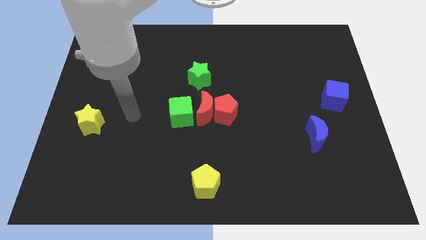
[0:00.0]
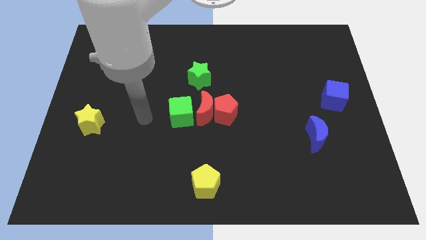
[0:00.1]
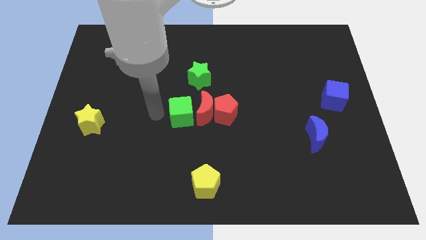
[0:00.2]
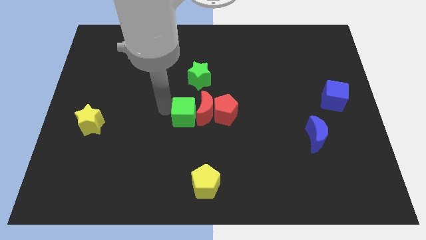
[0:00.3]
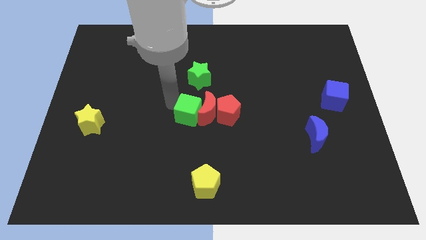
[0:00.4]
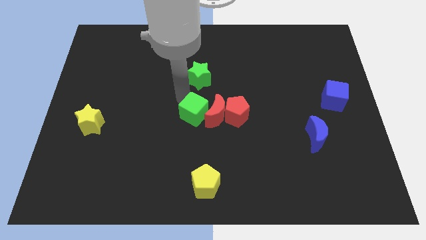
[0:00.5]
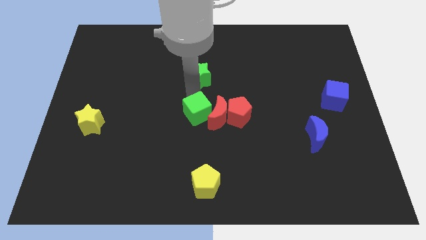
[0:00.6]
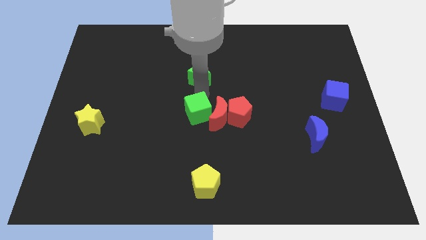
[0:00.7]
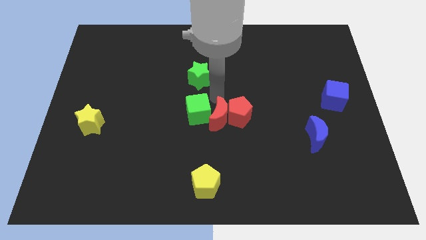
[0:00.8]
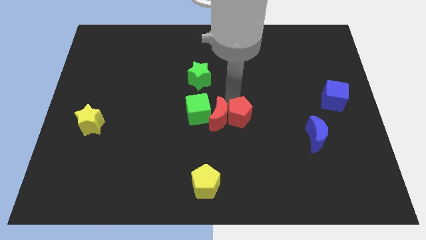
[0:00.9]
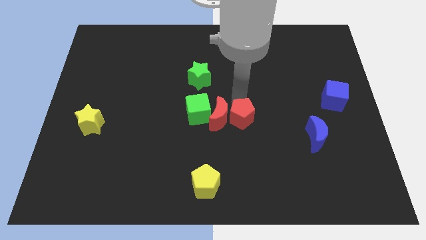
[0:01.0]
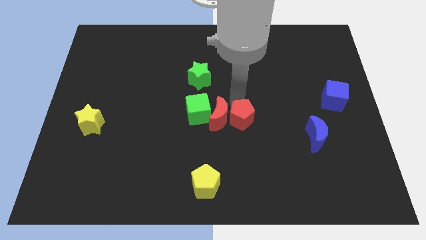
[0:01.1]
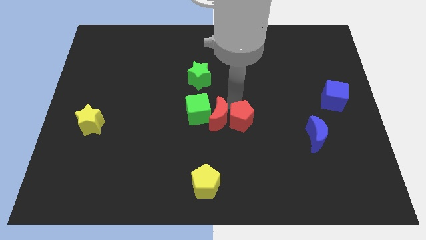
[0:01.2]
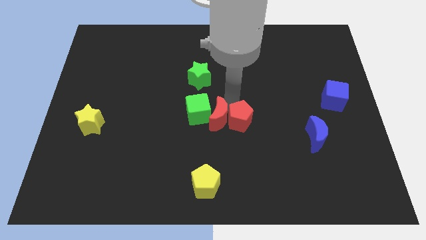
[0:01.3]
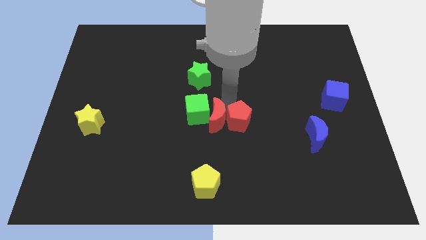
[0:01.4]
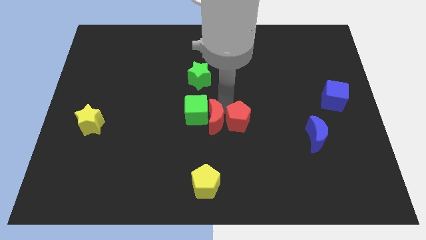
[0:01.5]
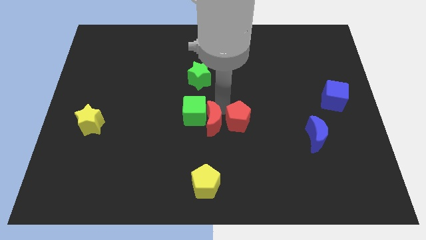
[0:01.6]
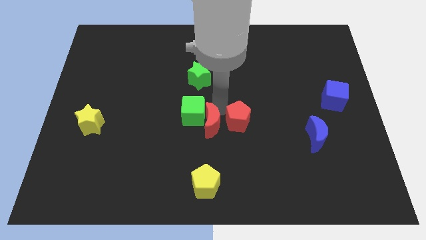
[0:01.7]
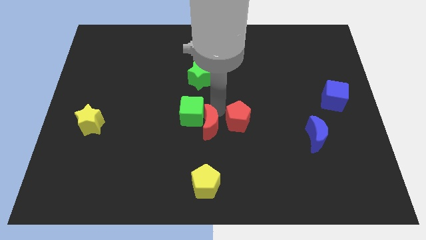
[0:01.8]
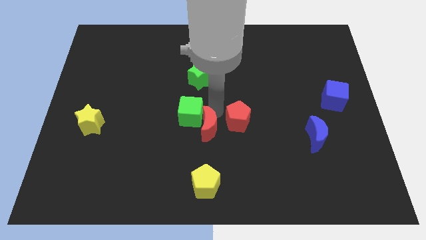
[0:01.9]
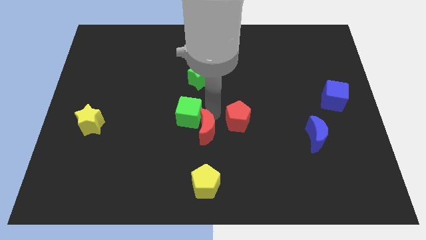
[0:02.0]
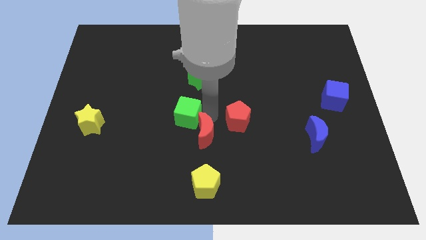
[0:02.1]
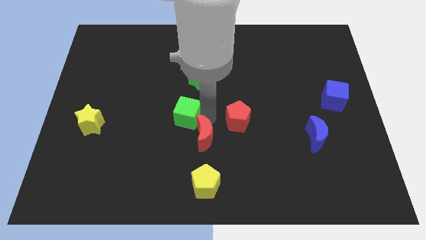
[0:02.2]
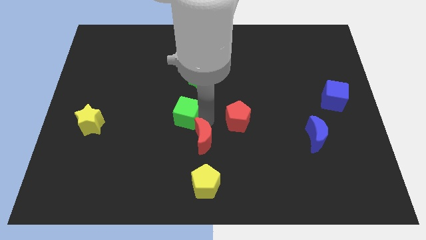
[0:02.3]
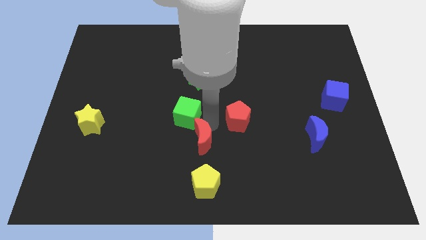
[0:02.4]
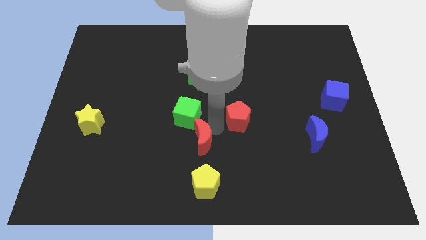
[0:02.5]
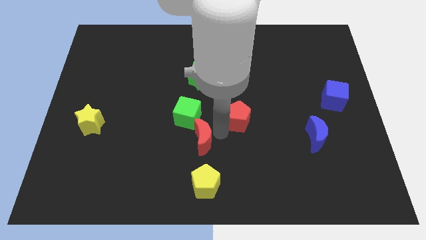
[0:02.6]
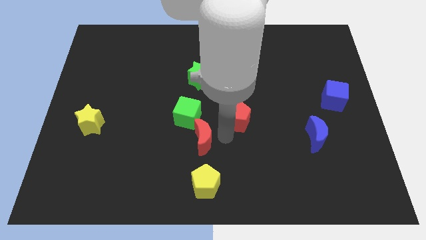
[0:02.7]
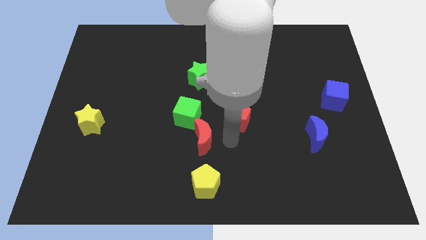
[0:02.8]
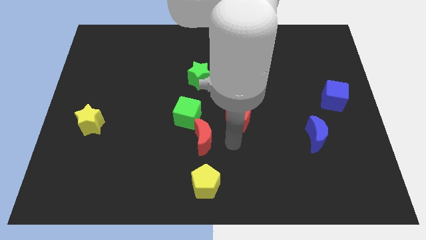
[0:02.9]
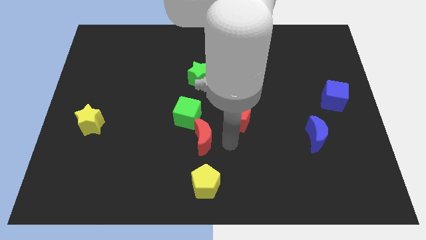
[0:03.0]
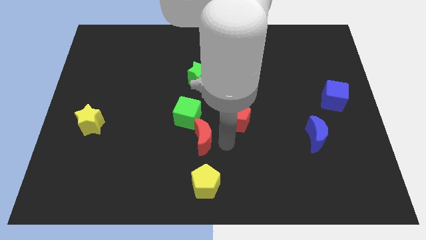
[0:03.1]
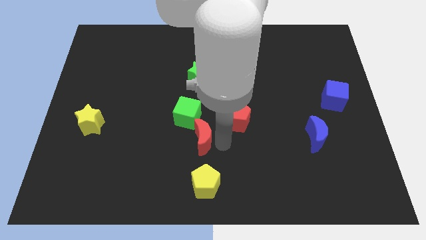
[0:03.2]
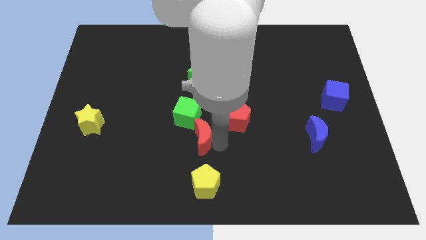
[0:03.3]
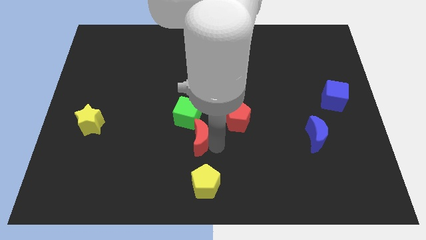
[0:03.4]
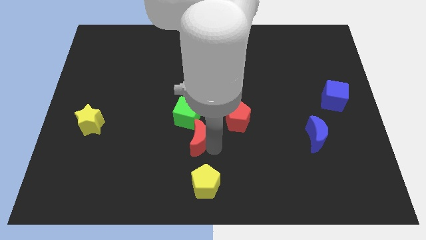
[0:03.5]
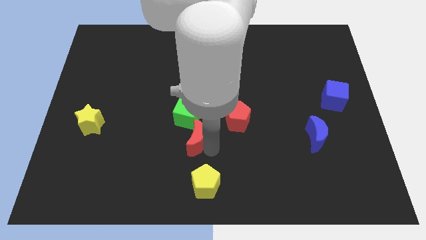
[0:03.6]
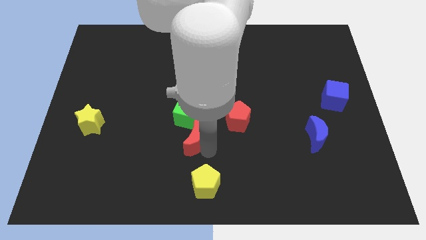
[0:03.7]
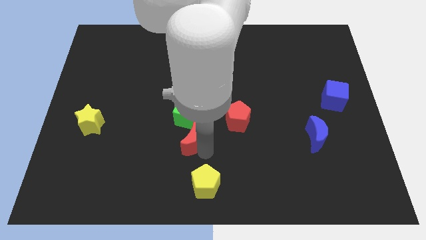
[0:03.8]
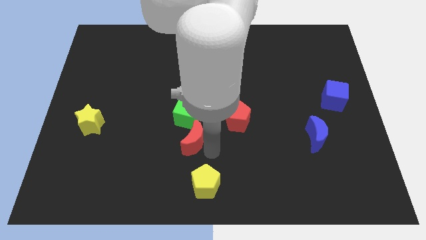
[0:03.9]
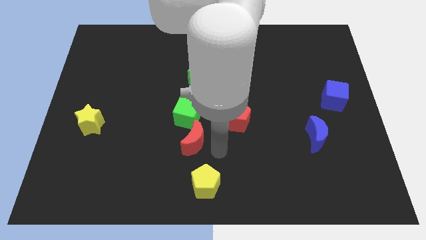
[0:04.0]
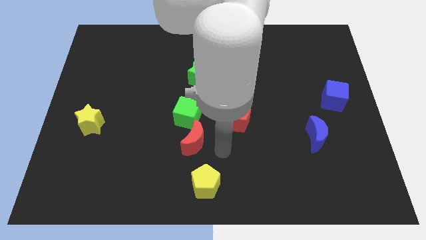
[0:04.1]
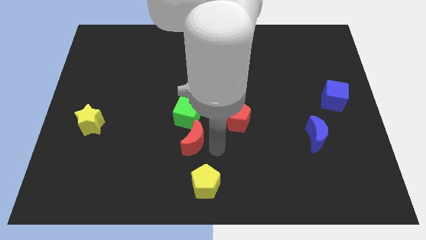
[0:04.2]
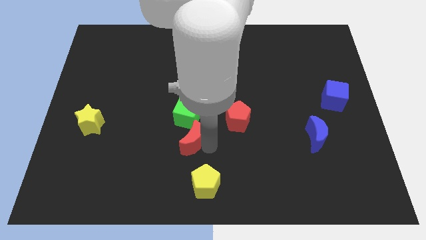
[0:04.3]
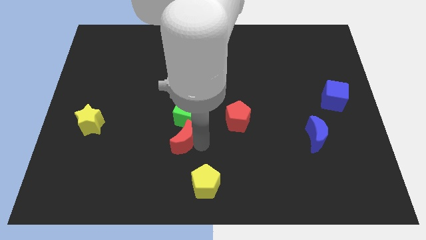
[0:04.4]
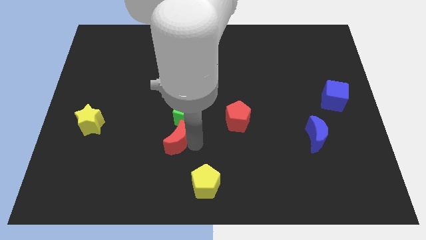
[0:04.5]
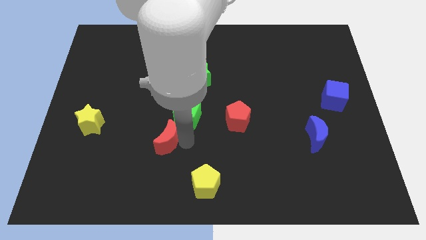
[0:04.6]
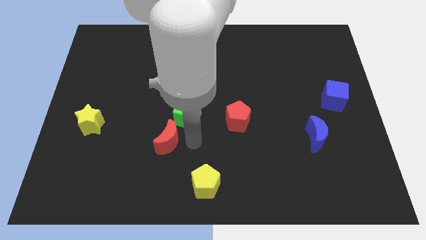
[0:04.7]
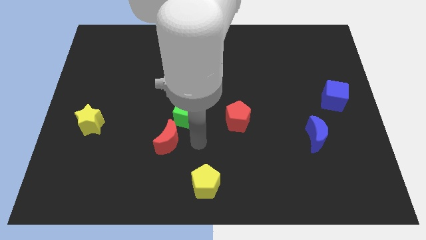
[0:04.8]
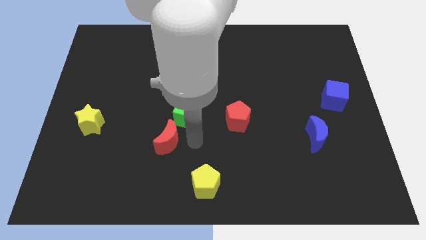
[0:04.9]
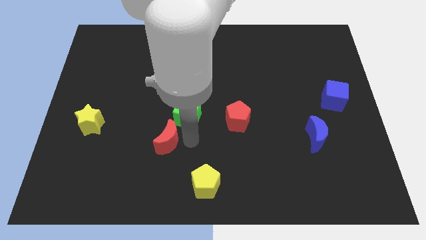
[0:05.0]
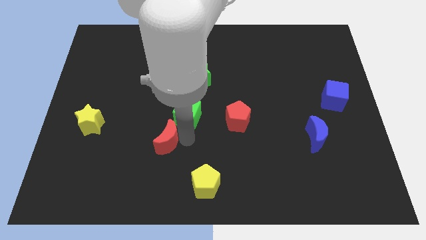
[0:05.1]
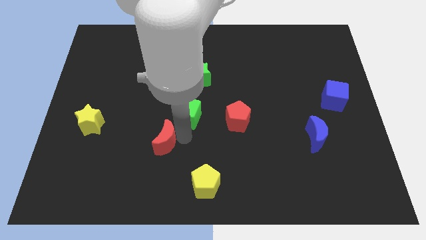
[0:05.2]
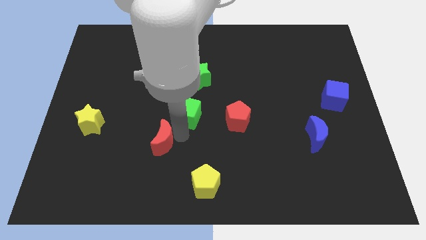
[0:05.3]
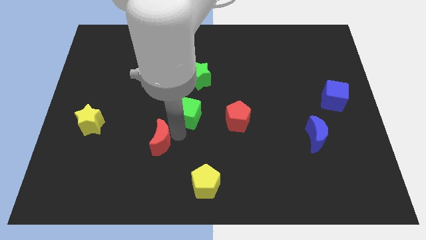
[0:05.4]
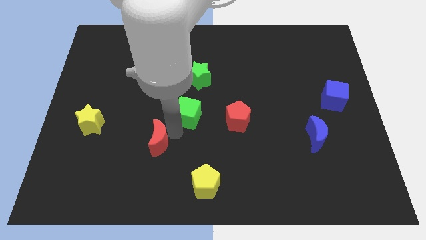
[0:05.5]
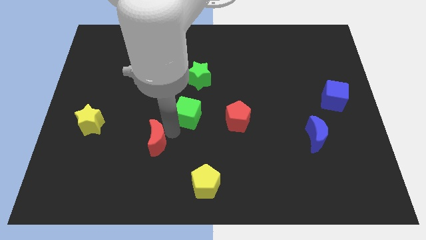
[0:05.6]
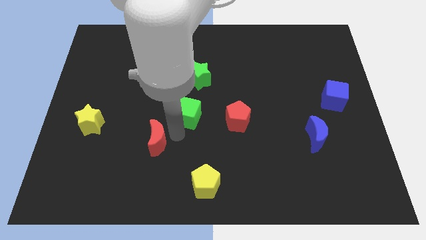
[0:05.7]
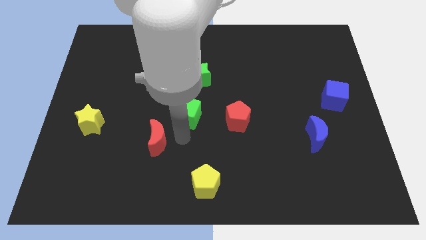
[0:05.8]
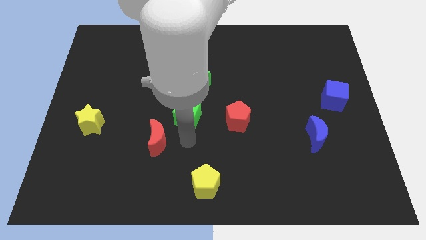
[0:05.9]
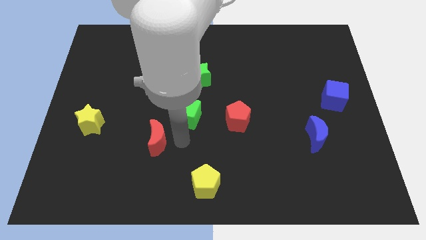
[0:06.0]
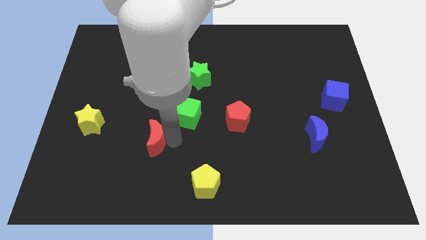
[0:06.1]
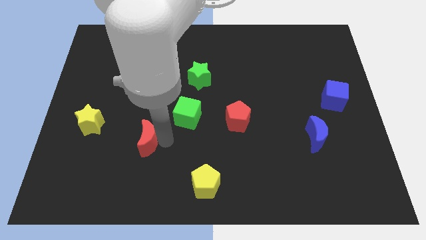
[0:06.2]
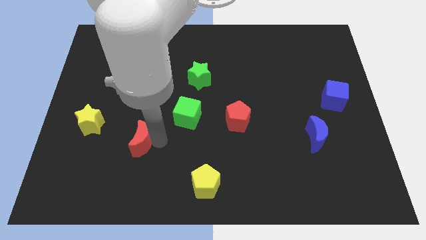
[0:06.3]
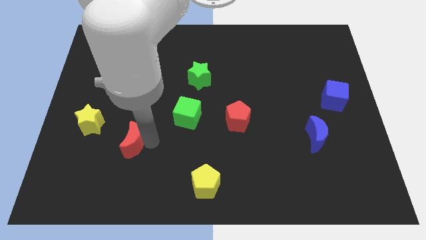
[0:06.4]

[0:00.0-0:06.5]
put the red moon to the bottom right side of the yellow star
